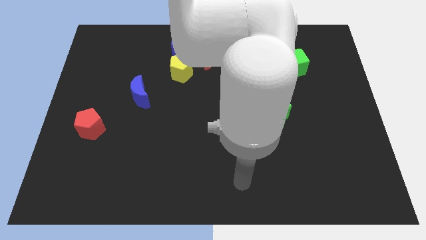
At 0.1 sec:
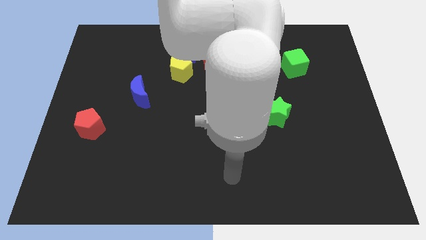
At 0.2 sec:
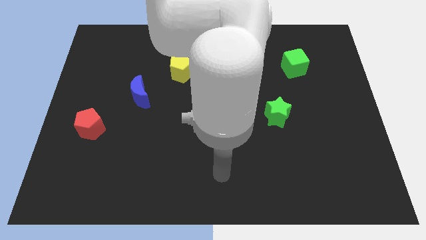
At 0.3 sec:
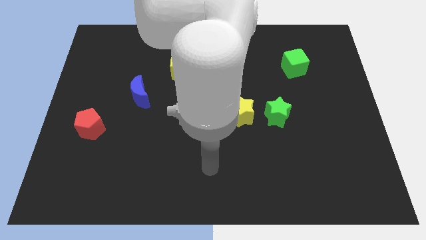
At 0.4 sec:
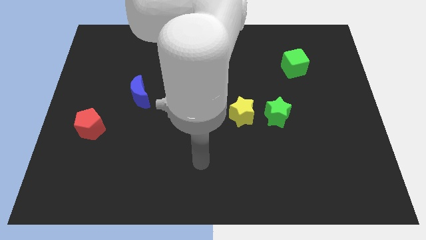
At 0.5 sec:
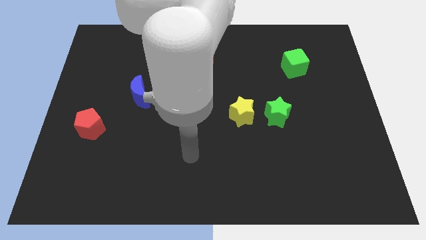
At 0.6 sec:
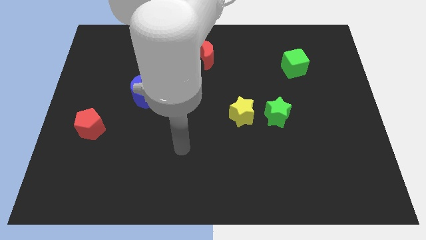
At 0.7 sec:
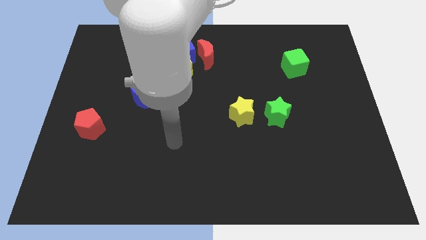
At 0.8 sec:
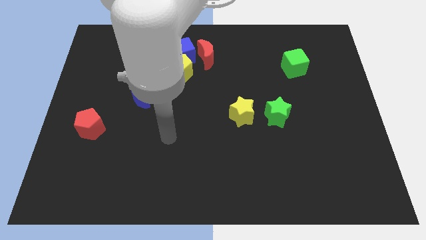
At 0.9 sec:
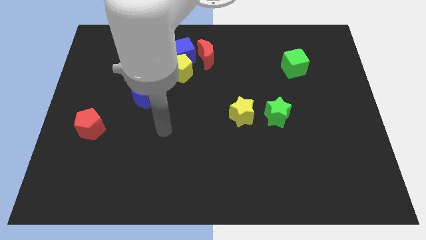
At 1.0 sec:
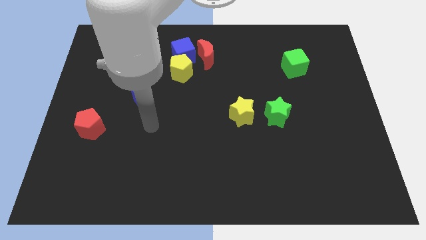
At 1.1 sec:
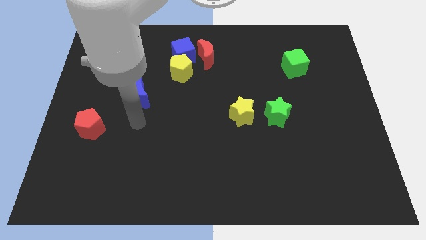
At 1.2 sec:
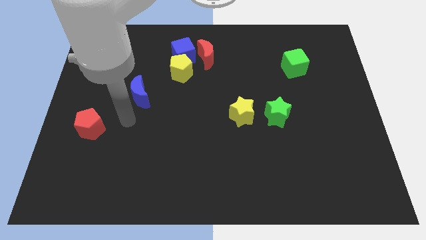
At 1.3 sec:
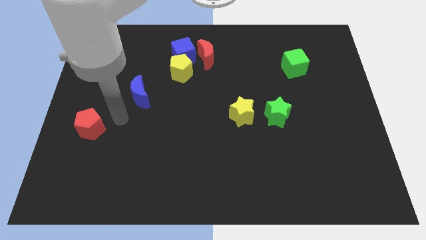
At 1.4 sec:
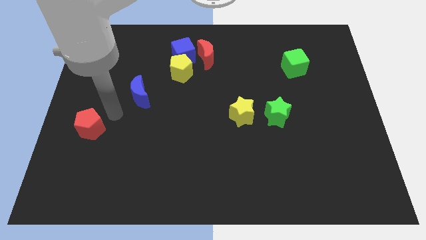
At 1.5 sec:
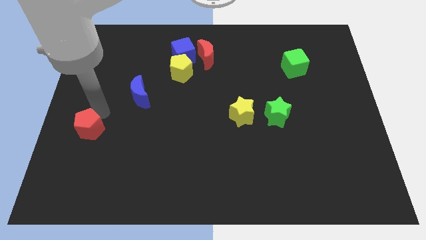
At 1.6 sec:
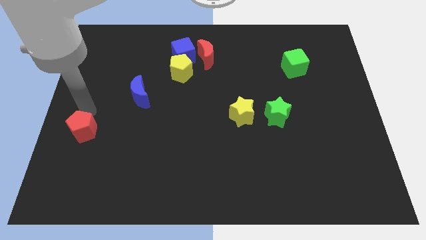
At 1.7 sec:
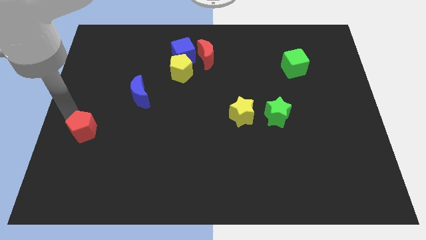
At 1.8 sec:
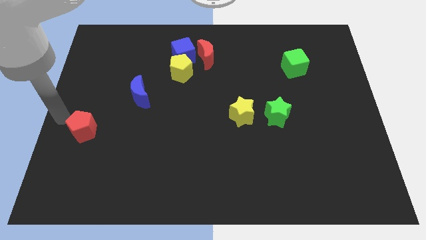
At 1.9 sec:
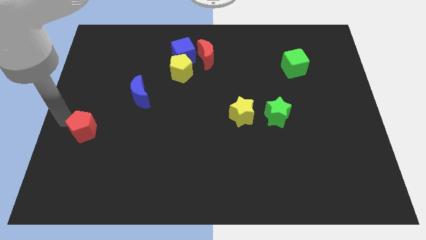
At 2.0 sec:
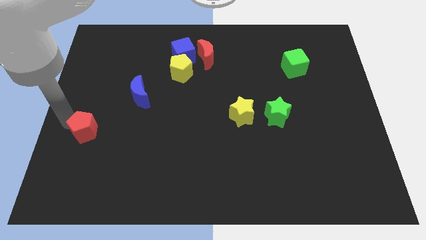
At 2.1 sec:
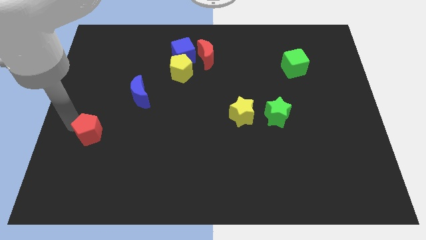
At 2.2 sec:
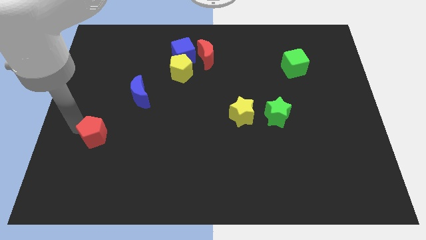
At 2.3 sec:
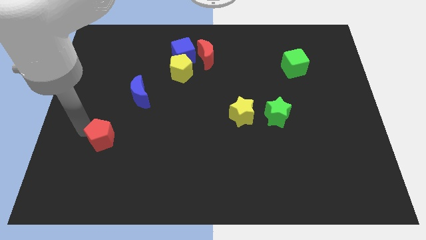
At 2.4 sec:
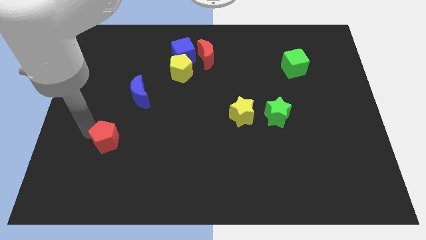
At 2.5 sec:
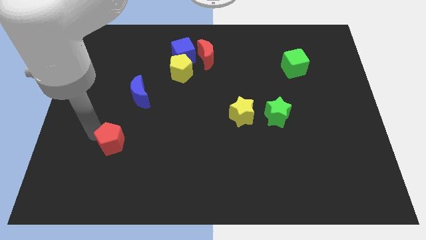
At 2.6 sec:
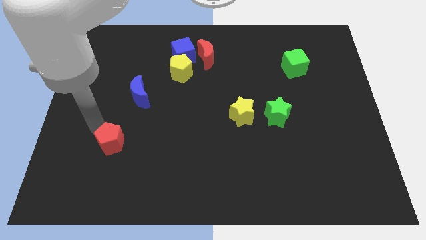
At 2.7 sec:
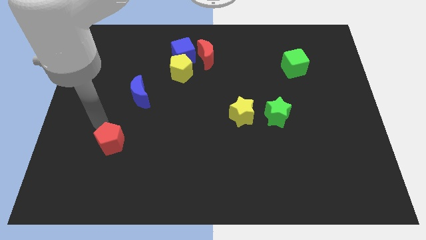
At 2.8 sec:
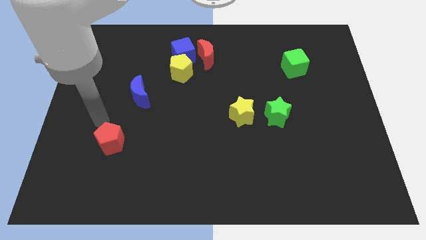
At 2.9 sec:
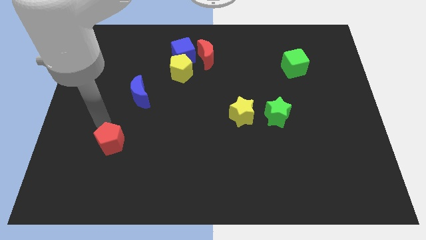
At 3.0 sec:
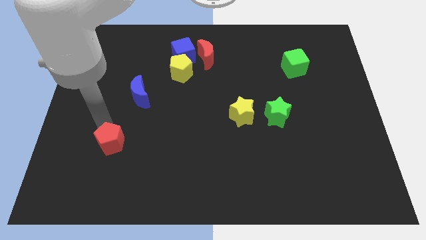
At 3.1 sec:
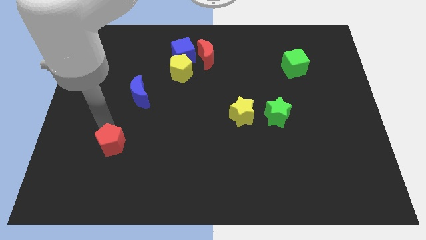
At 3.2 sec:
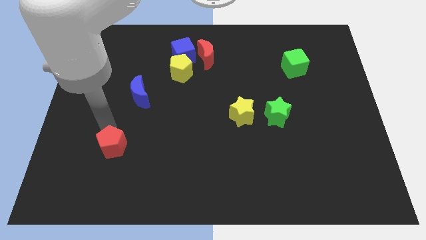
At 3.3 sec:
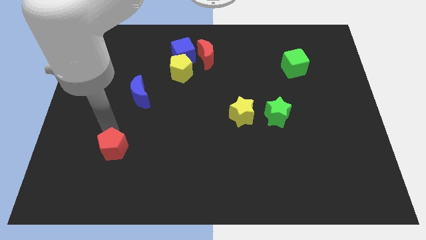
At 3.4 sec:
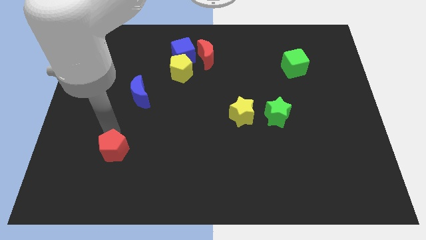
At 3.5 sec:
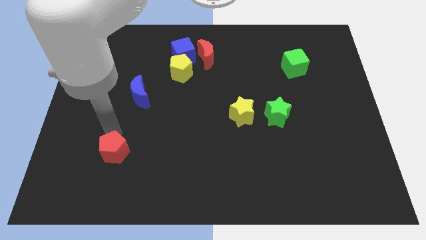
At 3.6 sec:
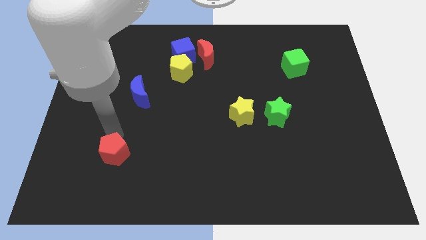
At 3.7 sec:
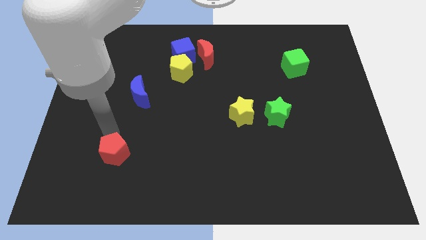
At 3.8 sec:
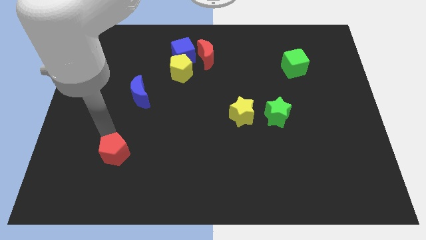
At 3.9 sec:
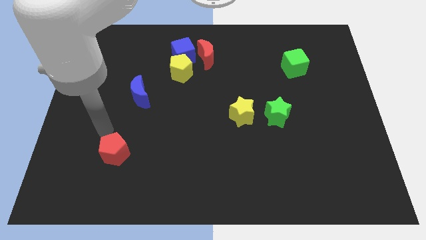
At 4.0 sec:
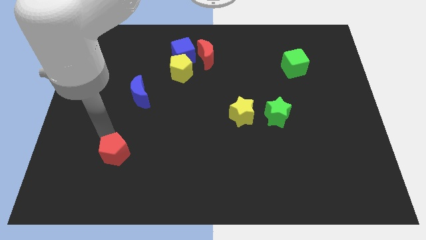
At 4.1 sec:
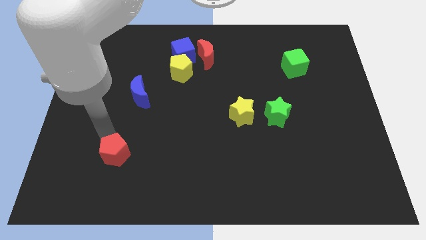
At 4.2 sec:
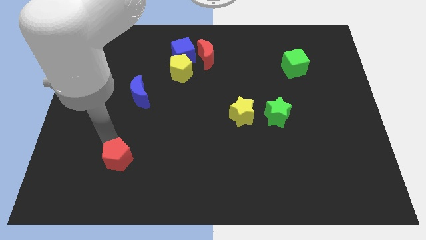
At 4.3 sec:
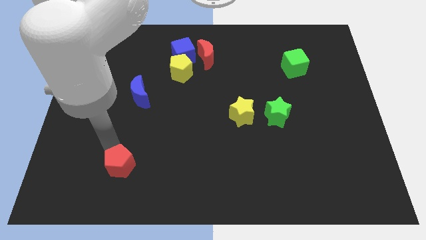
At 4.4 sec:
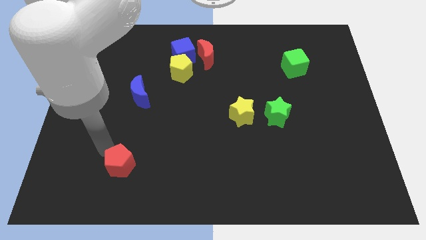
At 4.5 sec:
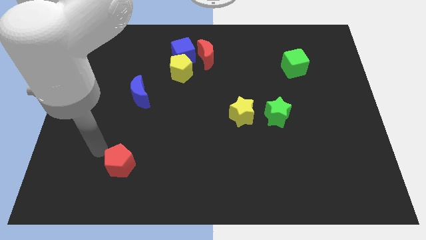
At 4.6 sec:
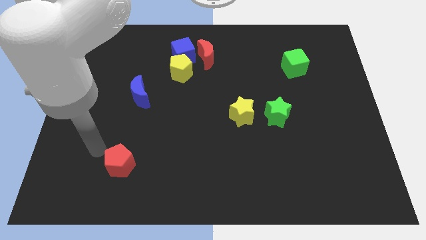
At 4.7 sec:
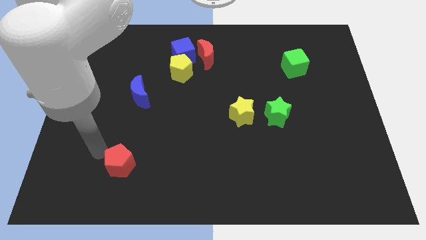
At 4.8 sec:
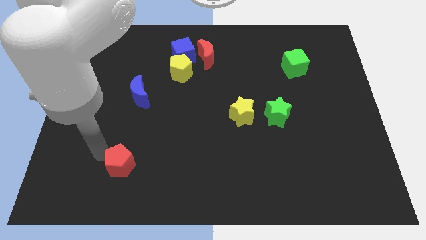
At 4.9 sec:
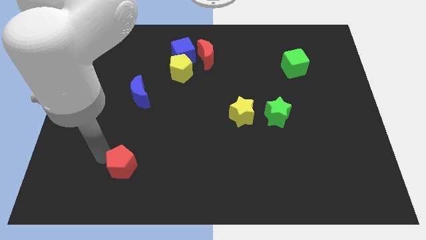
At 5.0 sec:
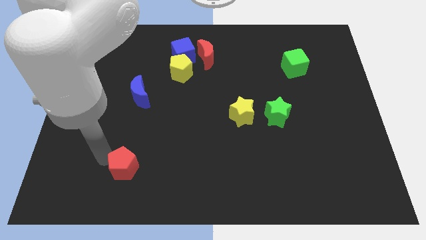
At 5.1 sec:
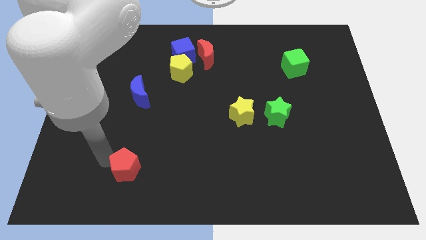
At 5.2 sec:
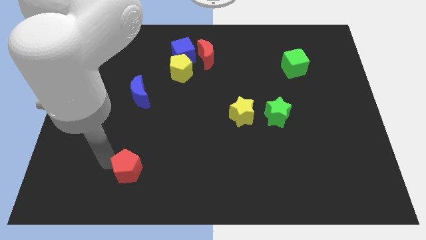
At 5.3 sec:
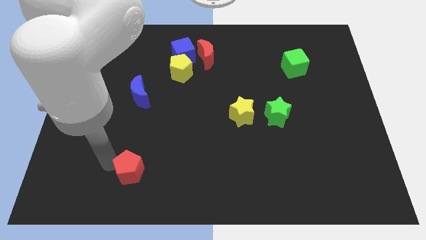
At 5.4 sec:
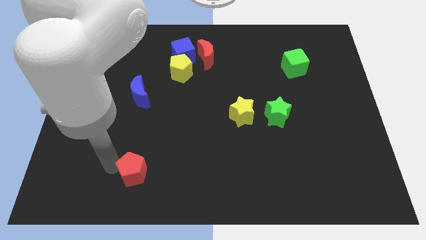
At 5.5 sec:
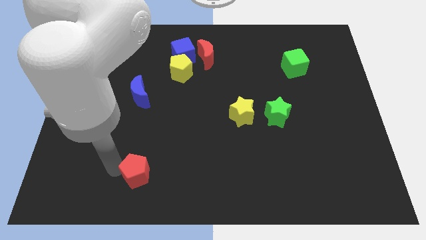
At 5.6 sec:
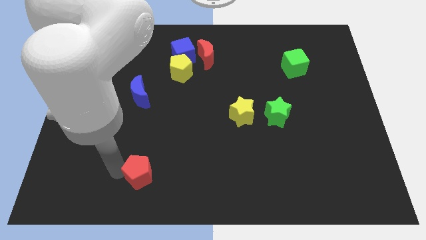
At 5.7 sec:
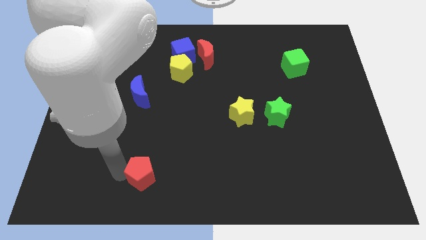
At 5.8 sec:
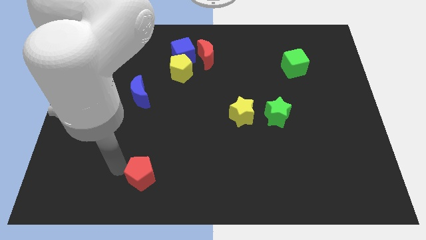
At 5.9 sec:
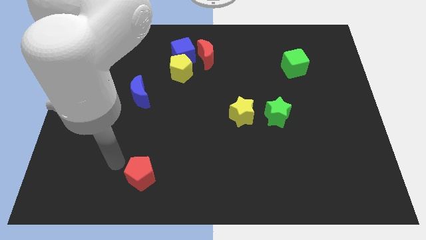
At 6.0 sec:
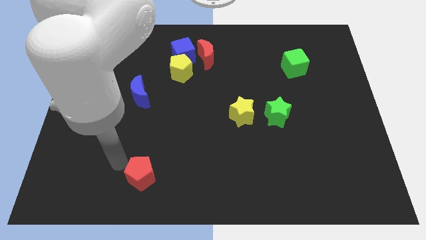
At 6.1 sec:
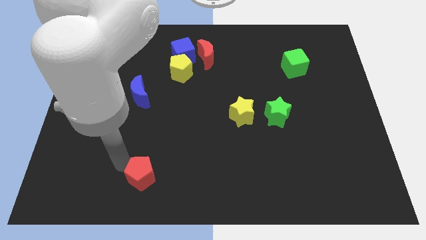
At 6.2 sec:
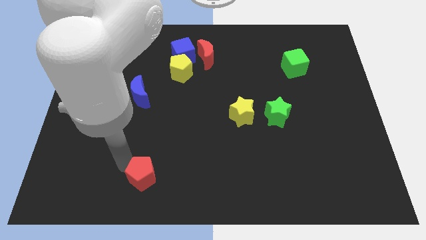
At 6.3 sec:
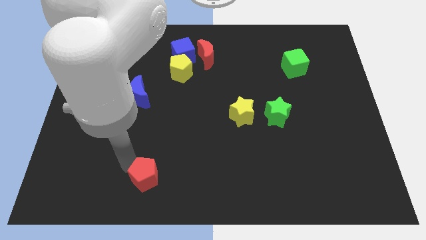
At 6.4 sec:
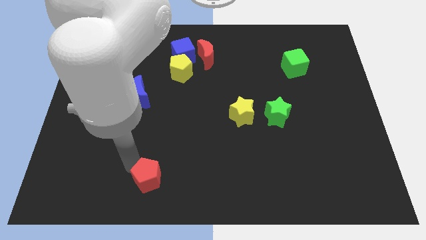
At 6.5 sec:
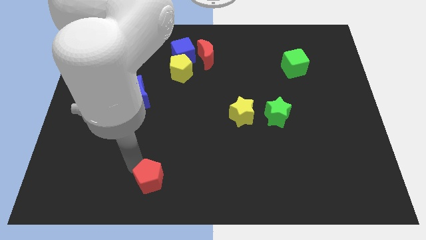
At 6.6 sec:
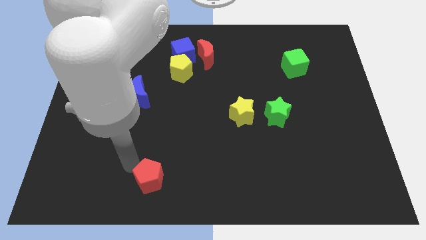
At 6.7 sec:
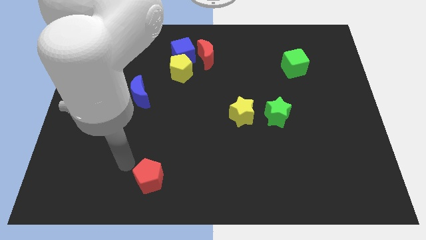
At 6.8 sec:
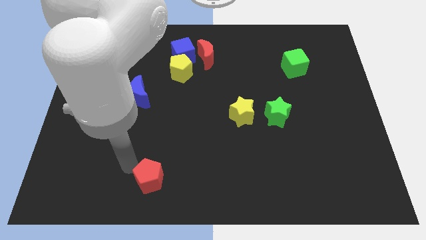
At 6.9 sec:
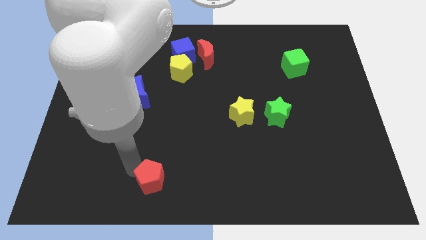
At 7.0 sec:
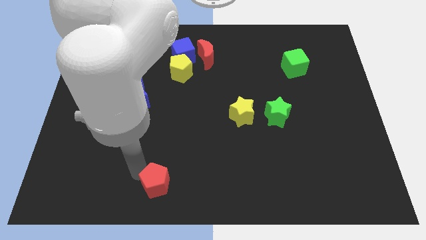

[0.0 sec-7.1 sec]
slide the red pentagon to the bottom
